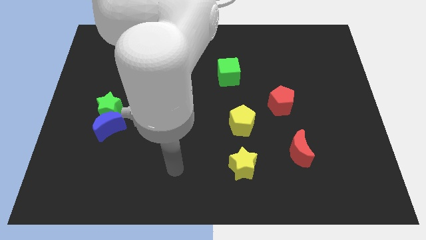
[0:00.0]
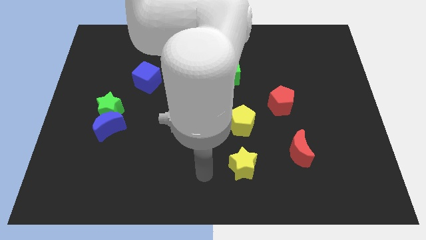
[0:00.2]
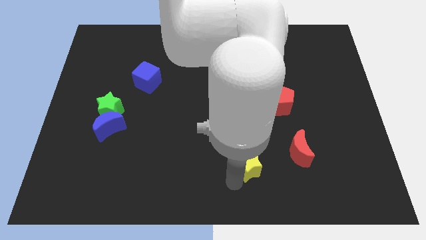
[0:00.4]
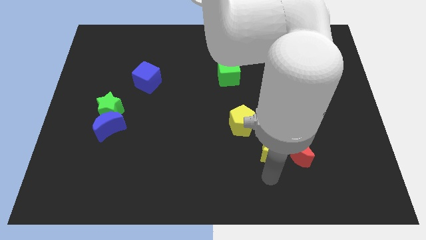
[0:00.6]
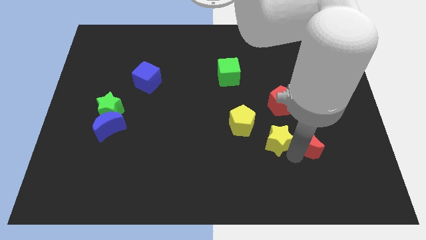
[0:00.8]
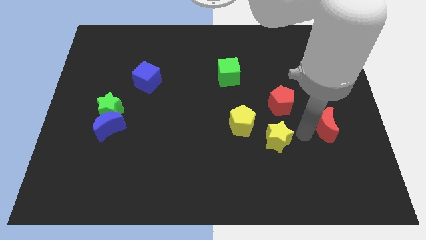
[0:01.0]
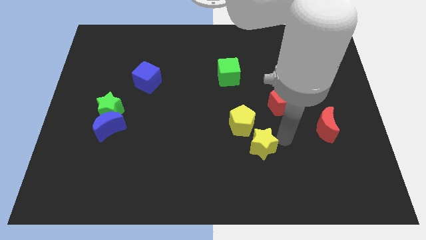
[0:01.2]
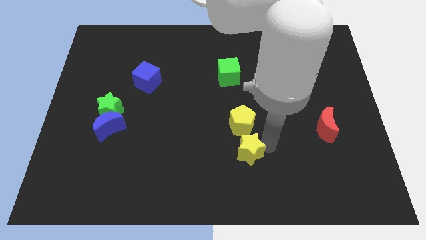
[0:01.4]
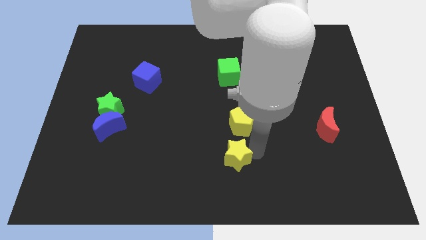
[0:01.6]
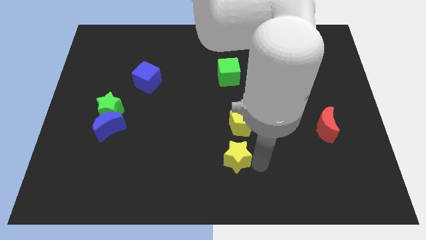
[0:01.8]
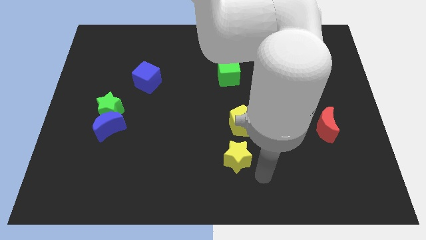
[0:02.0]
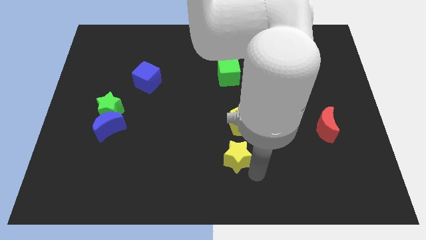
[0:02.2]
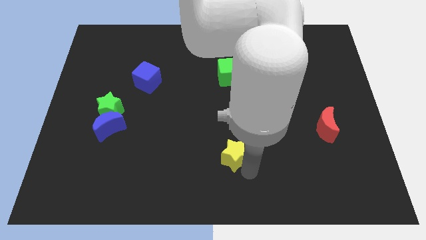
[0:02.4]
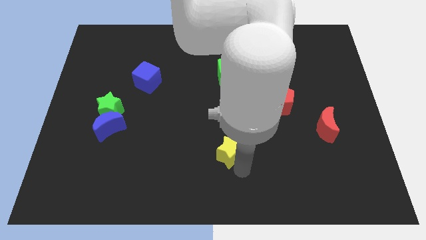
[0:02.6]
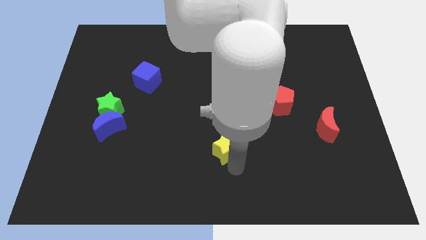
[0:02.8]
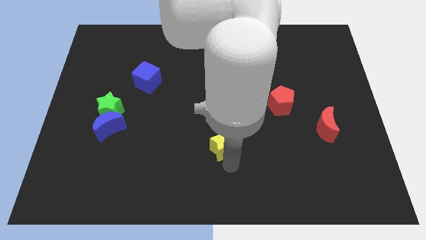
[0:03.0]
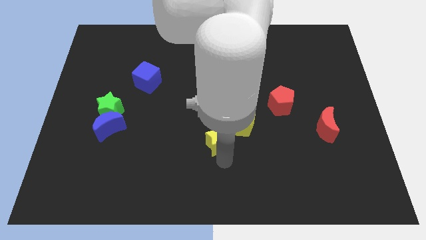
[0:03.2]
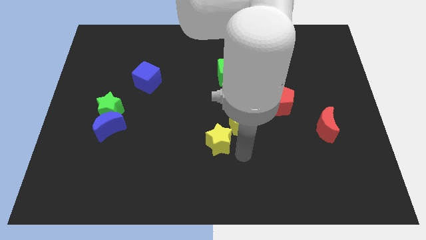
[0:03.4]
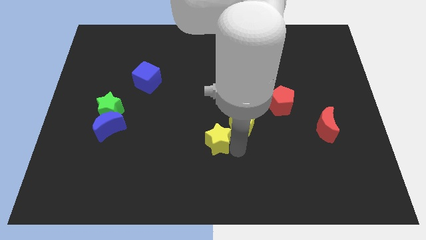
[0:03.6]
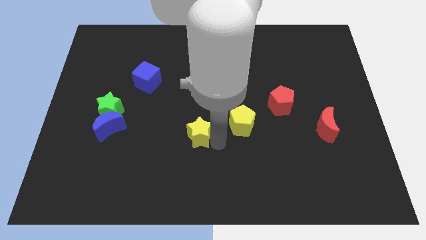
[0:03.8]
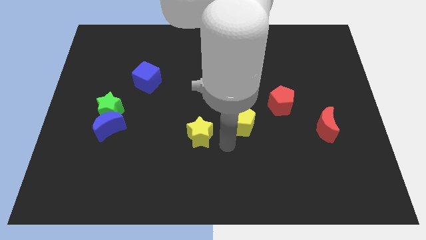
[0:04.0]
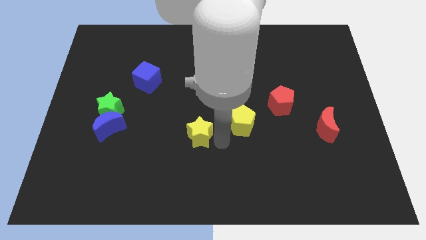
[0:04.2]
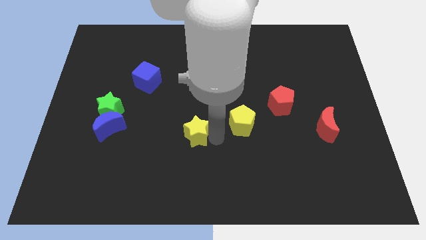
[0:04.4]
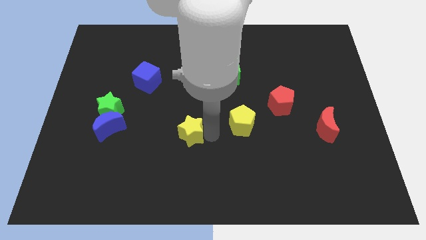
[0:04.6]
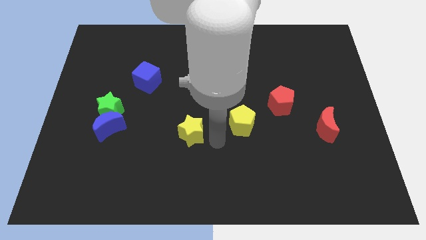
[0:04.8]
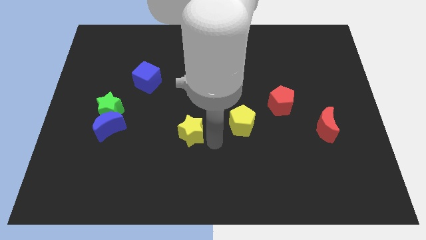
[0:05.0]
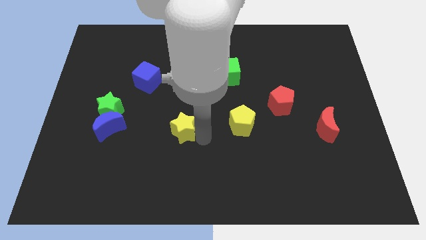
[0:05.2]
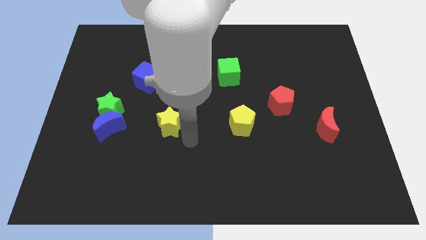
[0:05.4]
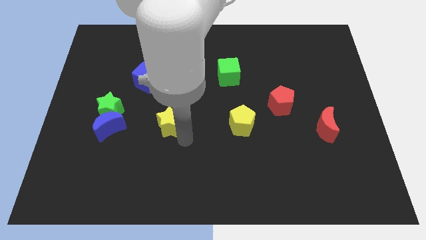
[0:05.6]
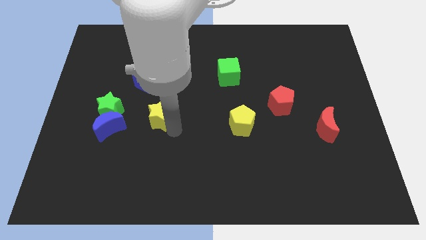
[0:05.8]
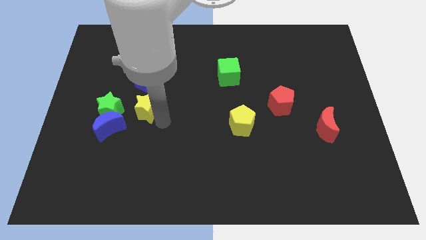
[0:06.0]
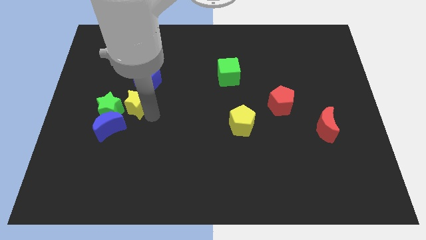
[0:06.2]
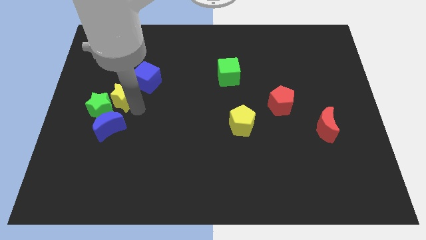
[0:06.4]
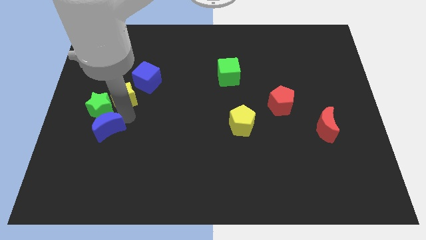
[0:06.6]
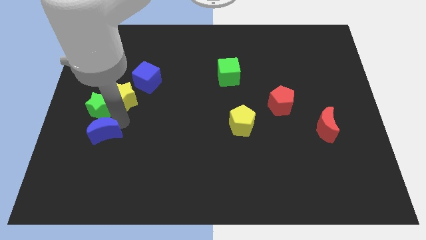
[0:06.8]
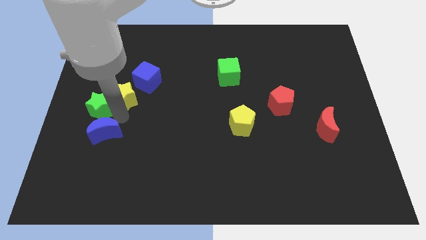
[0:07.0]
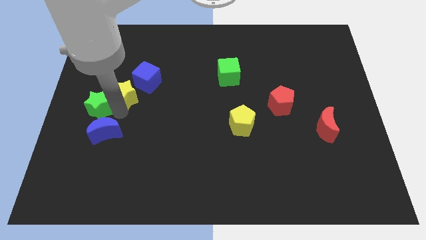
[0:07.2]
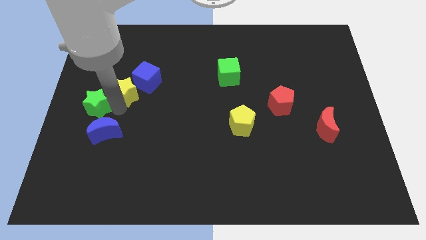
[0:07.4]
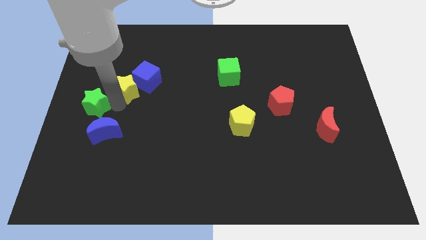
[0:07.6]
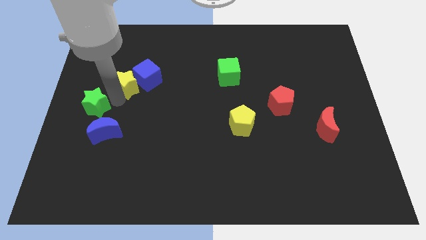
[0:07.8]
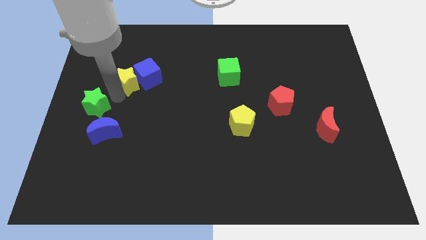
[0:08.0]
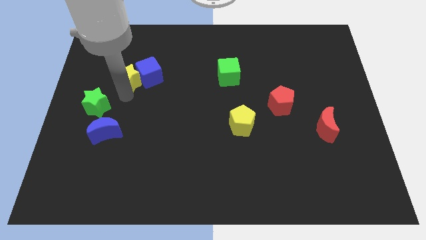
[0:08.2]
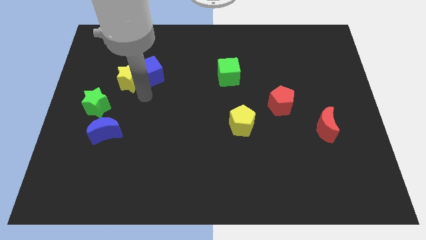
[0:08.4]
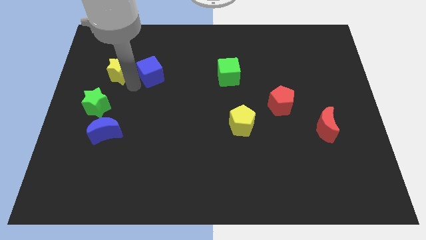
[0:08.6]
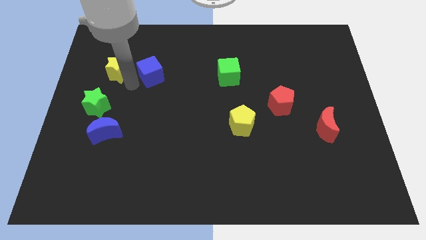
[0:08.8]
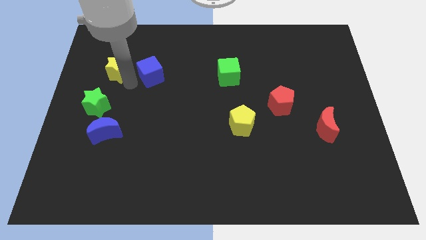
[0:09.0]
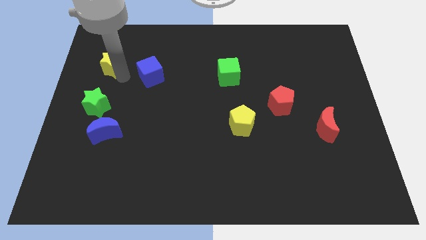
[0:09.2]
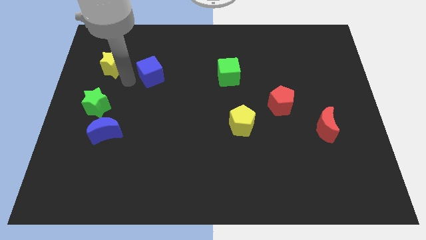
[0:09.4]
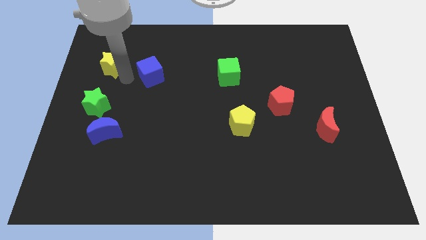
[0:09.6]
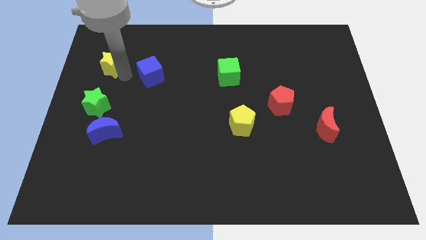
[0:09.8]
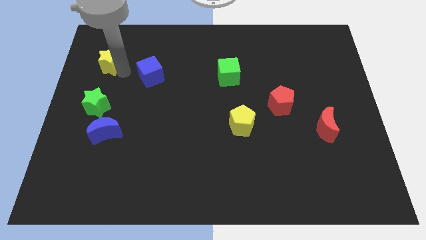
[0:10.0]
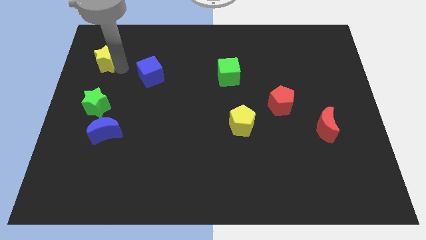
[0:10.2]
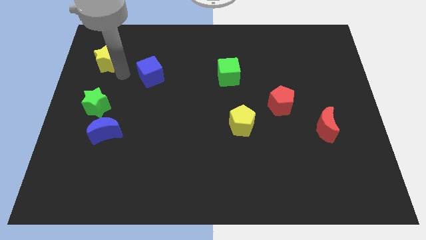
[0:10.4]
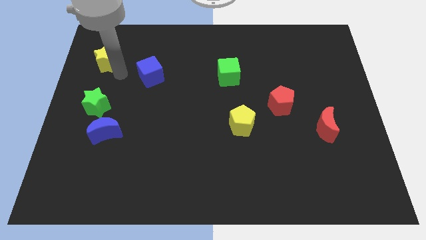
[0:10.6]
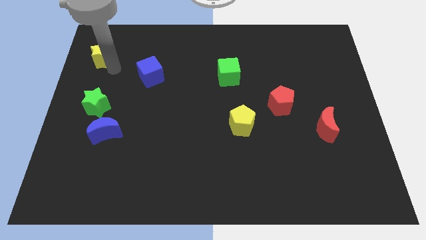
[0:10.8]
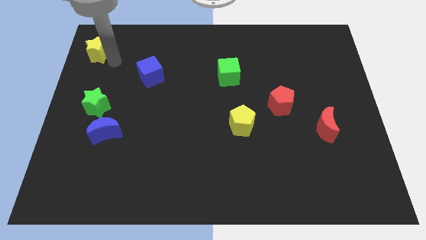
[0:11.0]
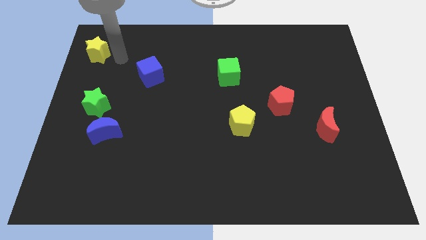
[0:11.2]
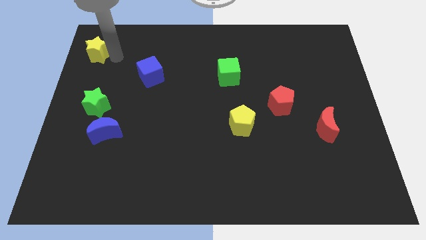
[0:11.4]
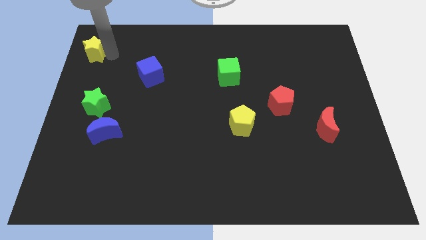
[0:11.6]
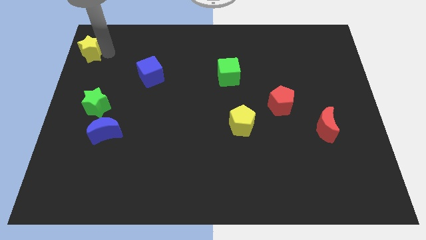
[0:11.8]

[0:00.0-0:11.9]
push the yellow star to the top left
